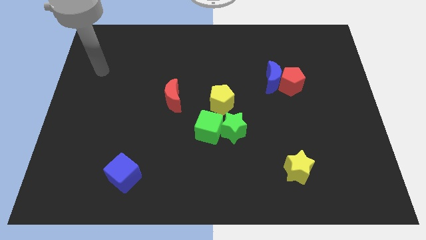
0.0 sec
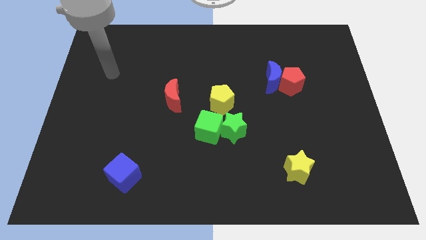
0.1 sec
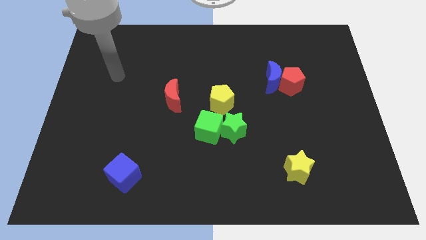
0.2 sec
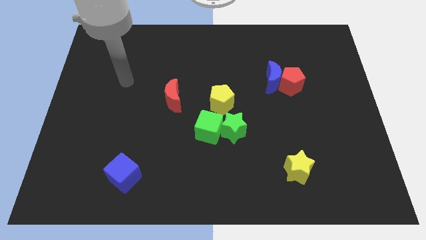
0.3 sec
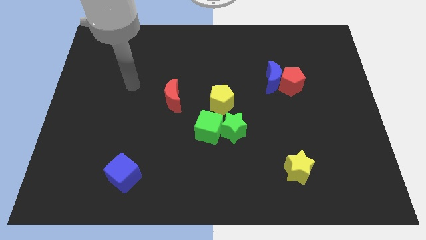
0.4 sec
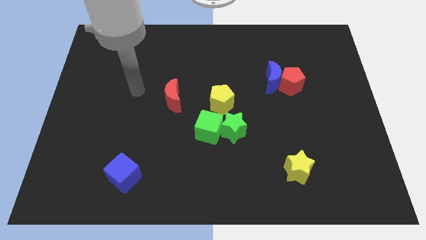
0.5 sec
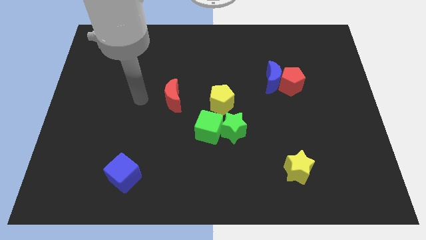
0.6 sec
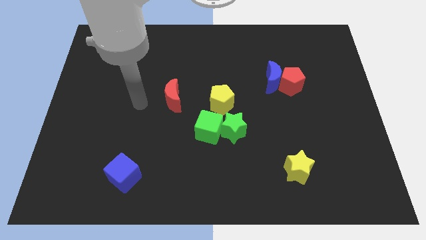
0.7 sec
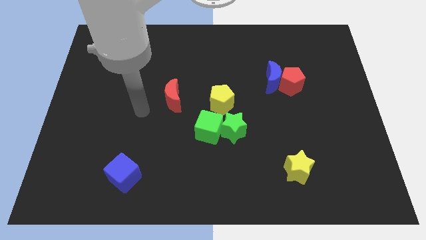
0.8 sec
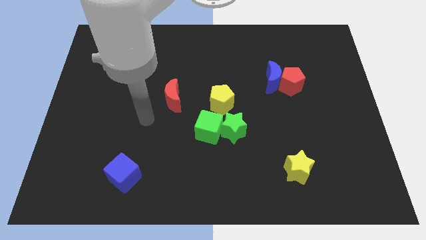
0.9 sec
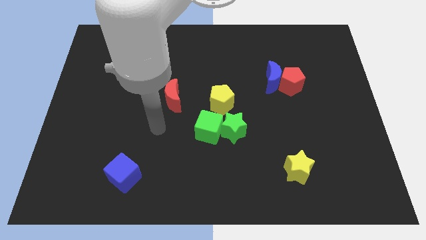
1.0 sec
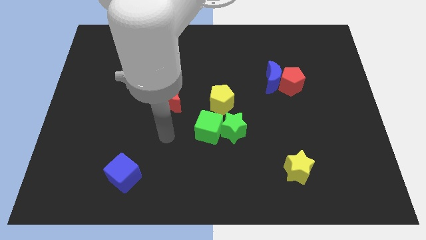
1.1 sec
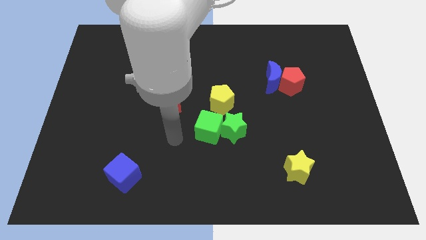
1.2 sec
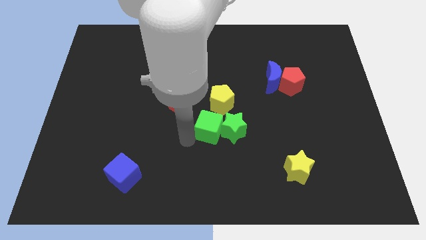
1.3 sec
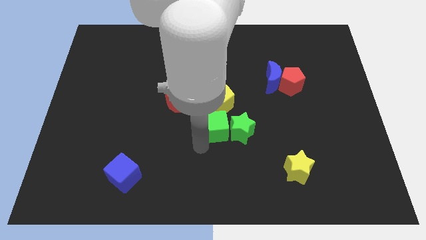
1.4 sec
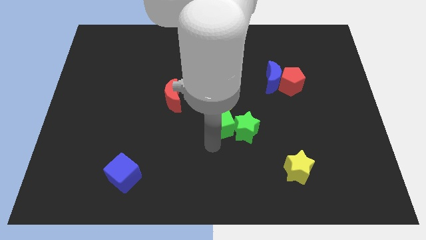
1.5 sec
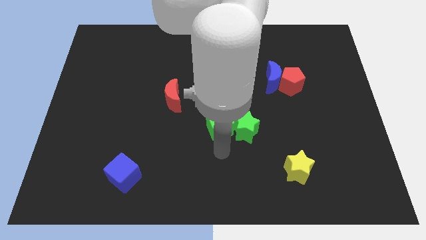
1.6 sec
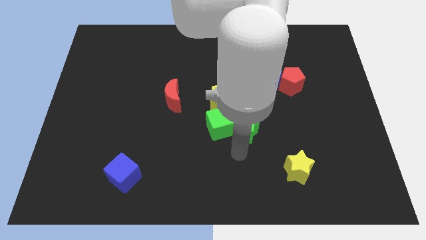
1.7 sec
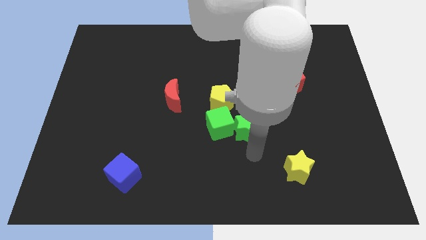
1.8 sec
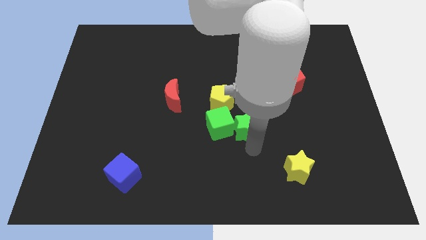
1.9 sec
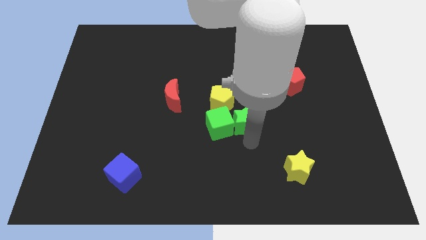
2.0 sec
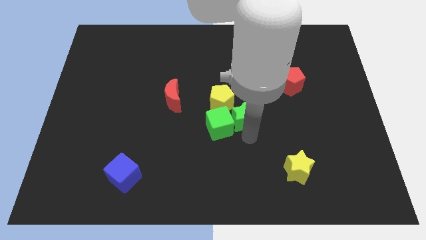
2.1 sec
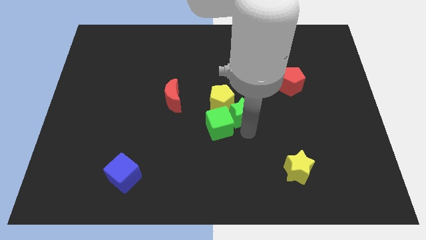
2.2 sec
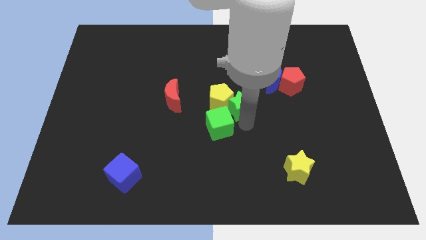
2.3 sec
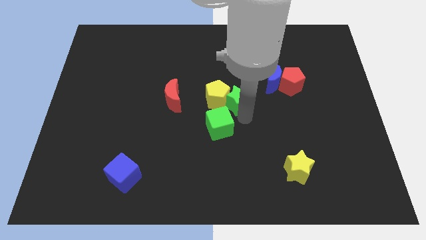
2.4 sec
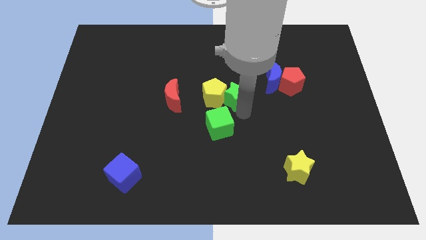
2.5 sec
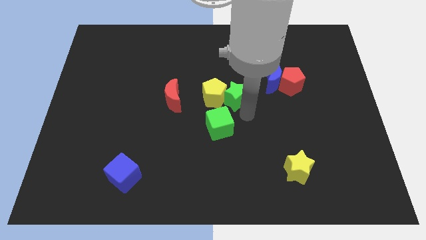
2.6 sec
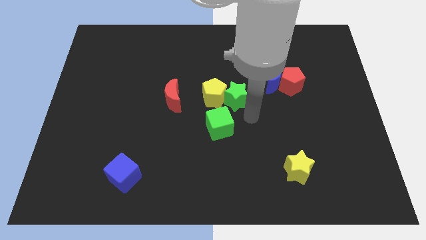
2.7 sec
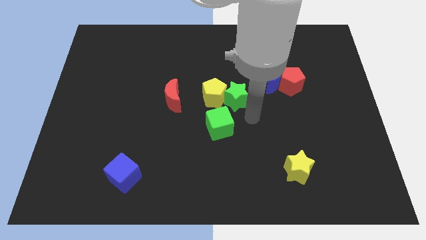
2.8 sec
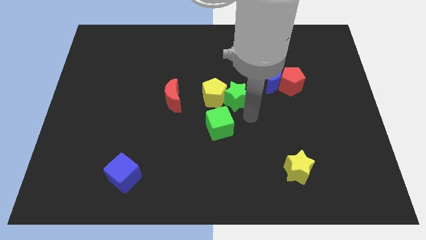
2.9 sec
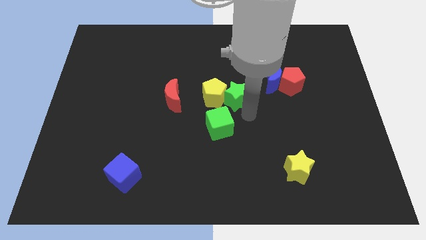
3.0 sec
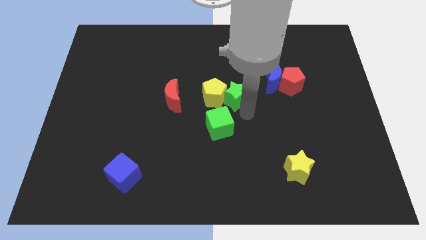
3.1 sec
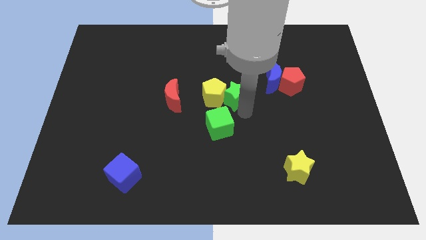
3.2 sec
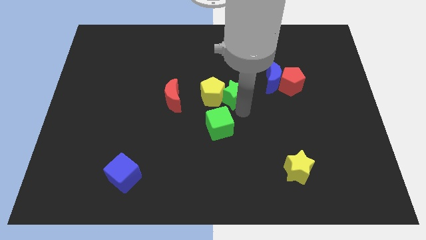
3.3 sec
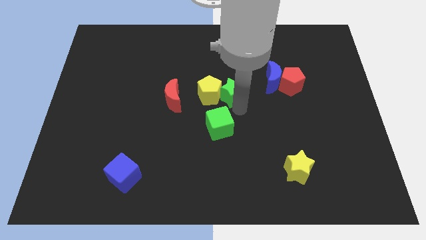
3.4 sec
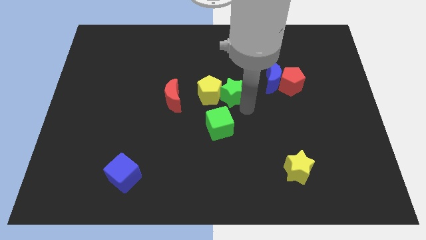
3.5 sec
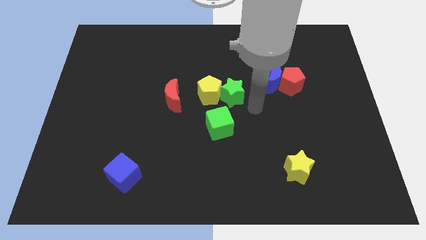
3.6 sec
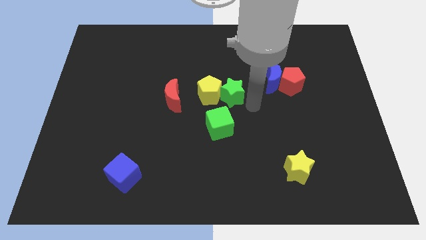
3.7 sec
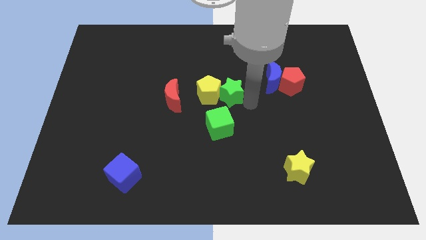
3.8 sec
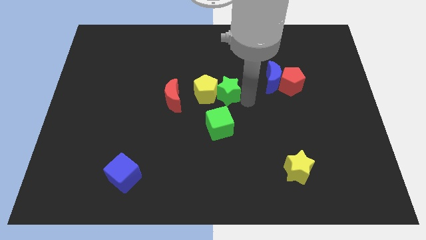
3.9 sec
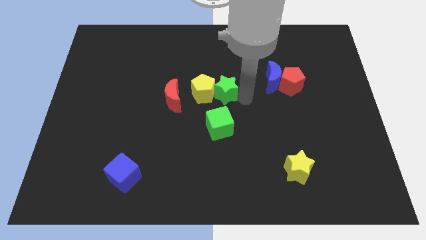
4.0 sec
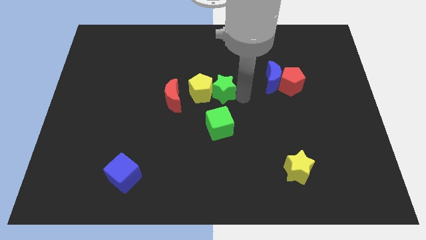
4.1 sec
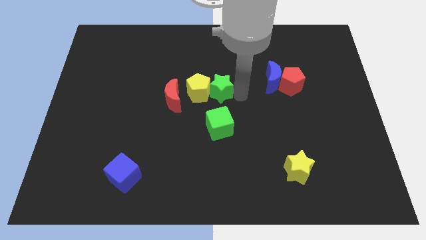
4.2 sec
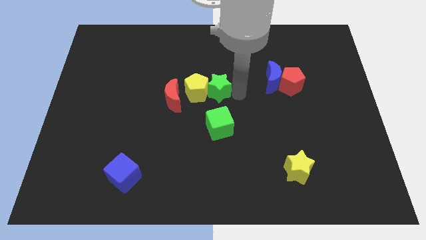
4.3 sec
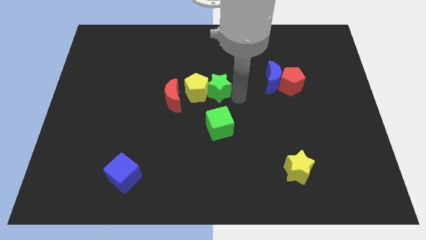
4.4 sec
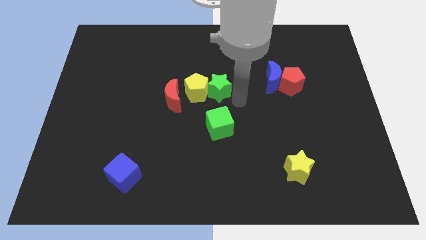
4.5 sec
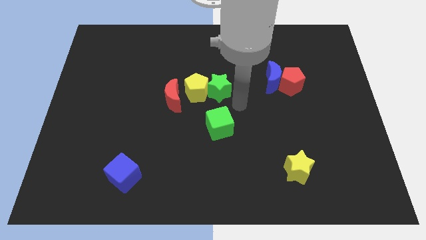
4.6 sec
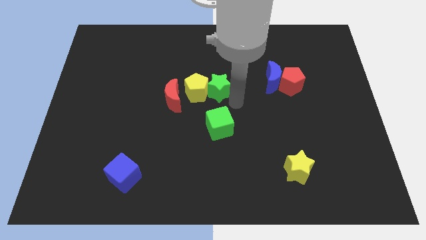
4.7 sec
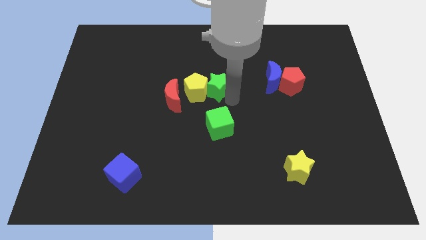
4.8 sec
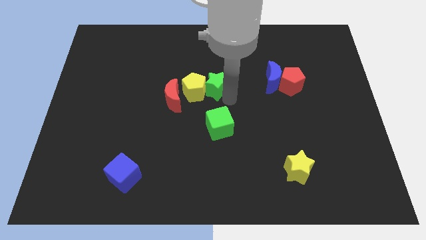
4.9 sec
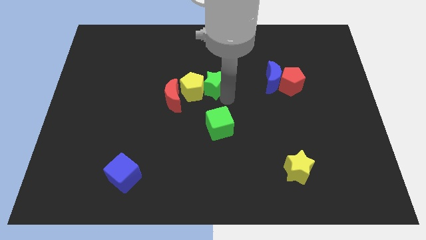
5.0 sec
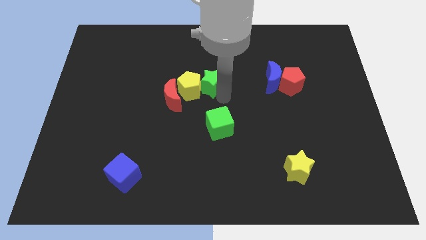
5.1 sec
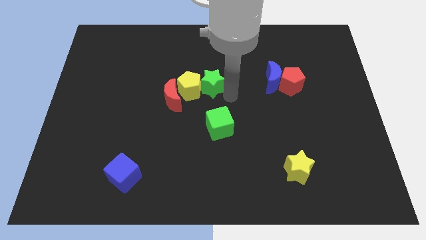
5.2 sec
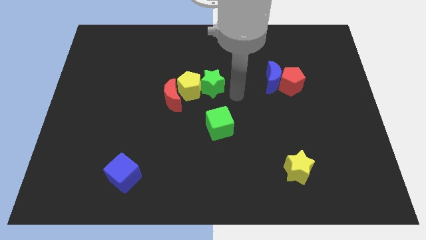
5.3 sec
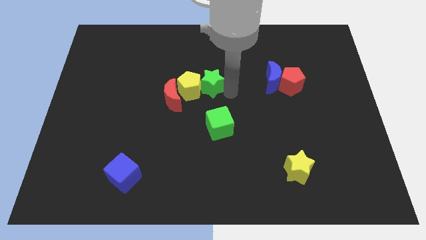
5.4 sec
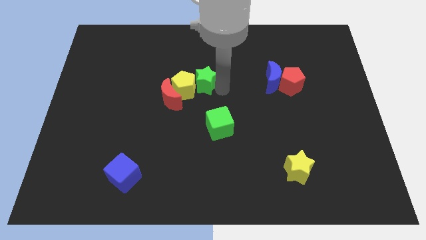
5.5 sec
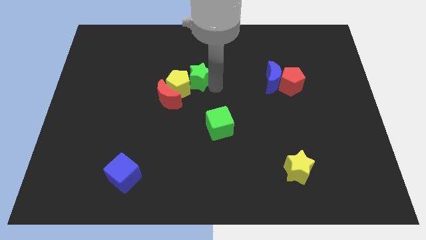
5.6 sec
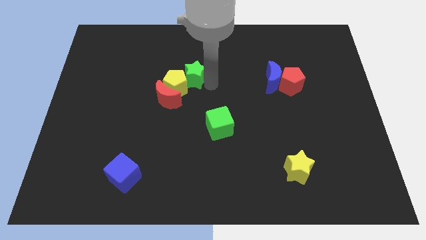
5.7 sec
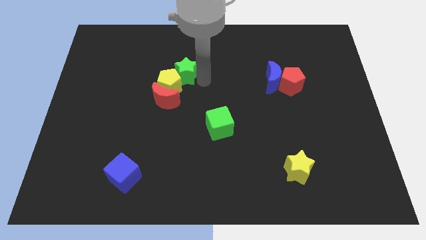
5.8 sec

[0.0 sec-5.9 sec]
move the green star up and left diagonally

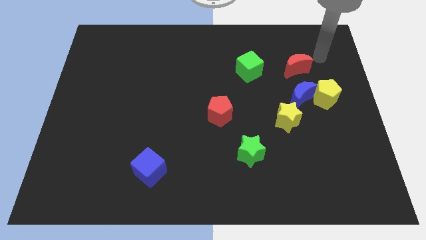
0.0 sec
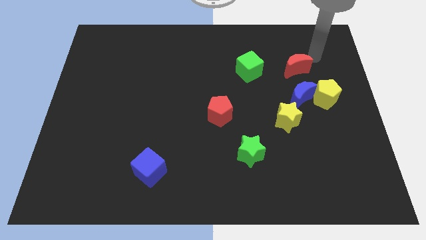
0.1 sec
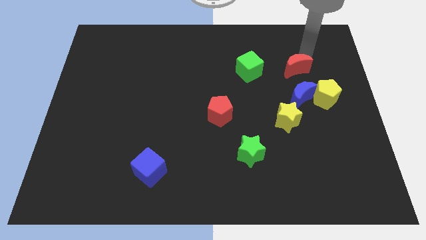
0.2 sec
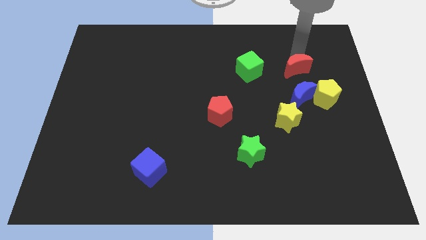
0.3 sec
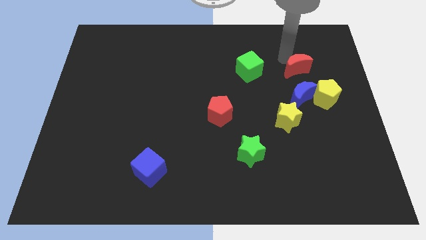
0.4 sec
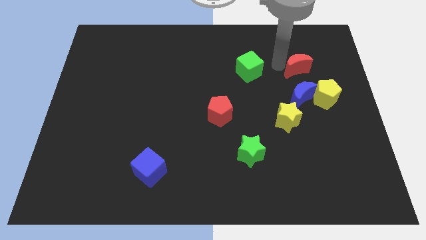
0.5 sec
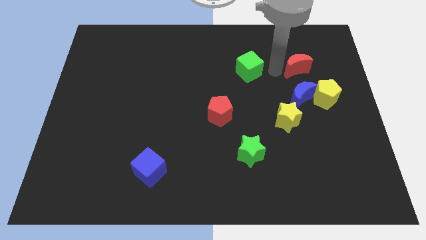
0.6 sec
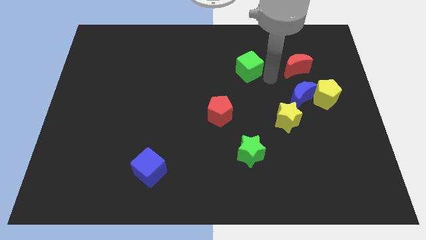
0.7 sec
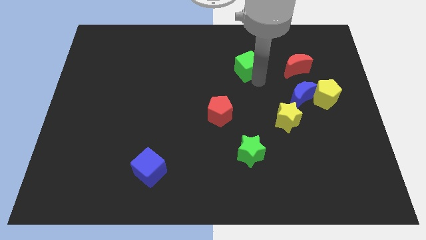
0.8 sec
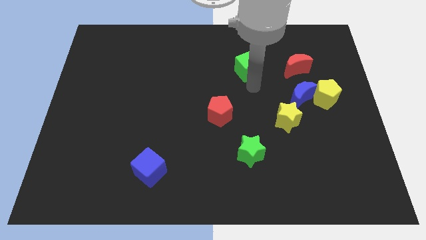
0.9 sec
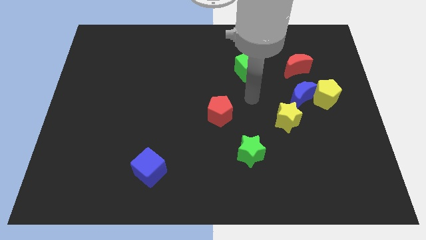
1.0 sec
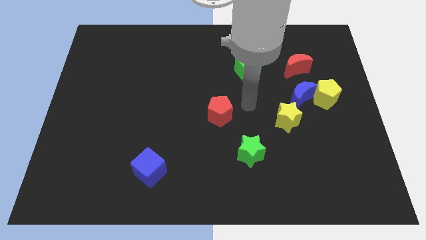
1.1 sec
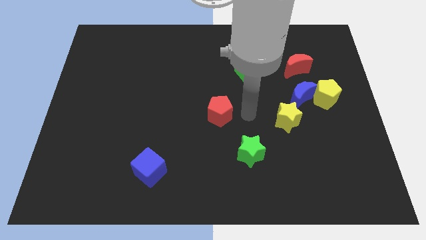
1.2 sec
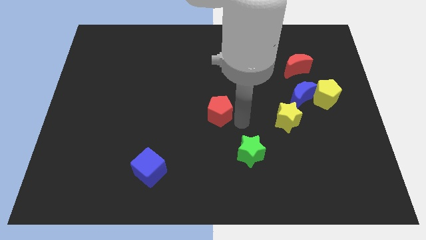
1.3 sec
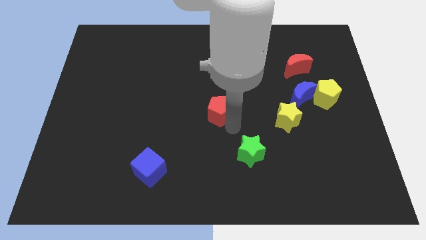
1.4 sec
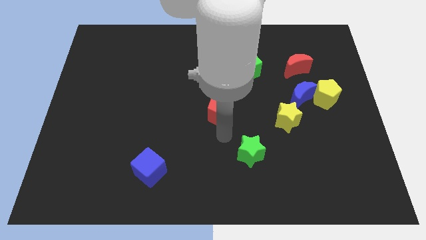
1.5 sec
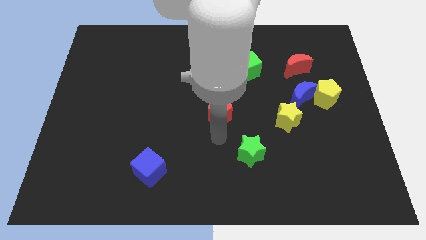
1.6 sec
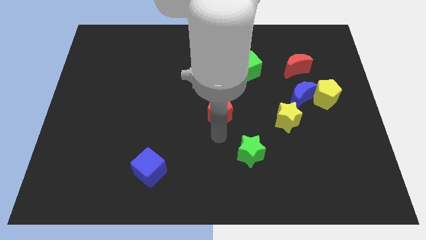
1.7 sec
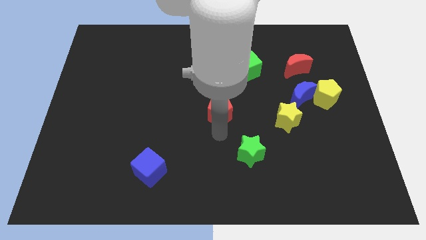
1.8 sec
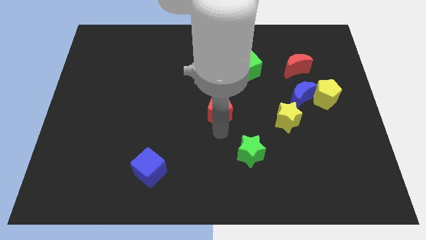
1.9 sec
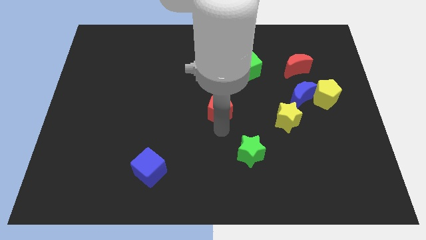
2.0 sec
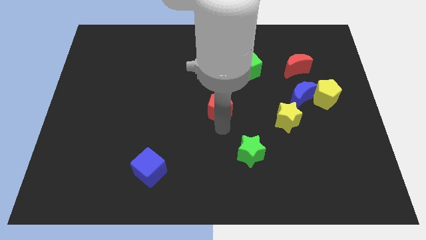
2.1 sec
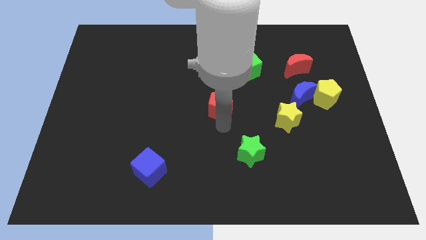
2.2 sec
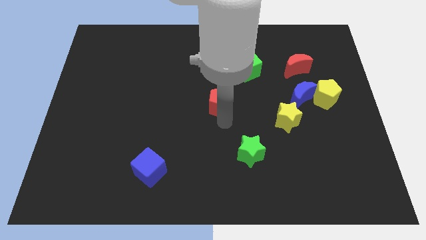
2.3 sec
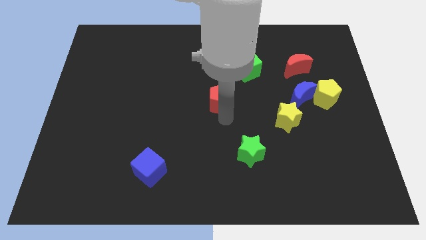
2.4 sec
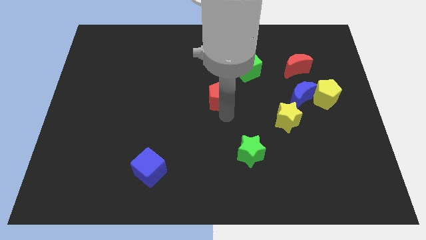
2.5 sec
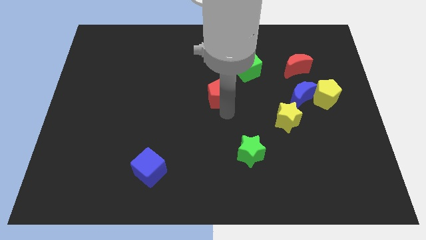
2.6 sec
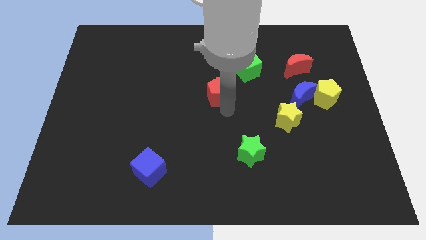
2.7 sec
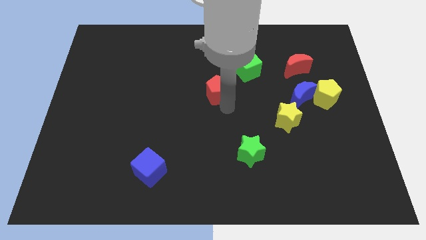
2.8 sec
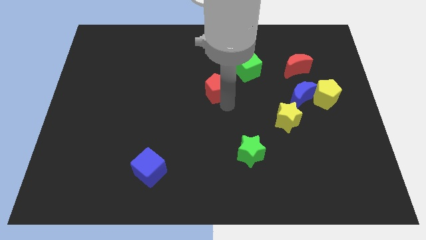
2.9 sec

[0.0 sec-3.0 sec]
move the red pentagon slightly up
